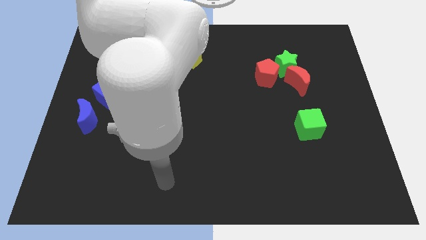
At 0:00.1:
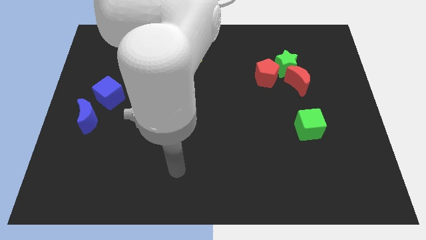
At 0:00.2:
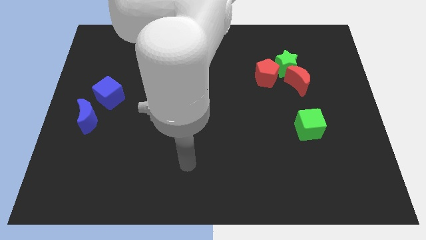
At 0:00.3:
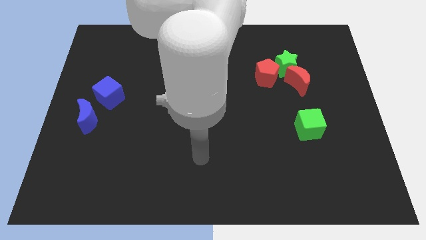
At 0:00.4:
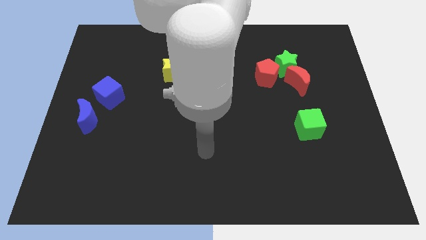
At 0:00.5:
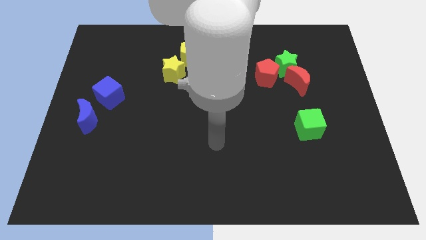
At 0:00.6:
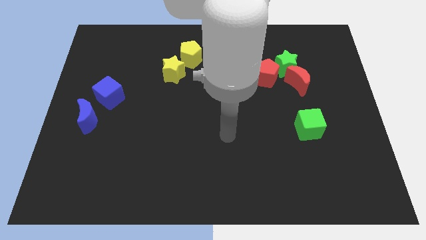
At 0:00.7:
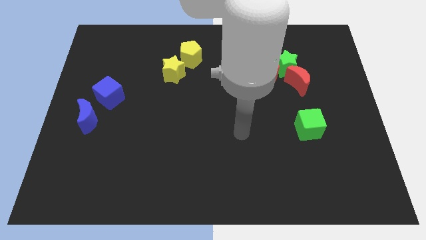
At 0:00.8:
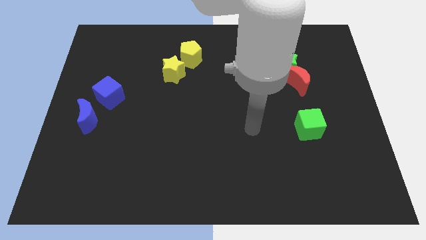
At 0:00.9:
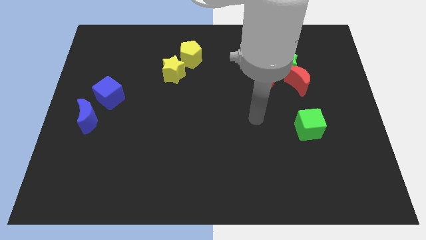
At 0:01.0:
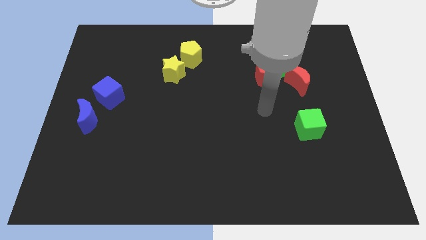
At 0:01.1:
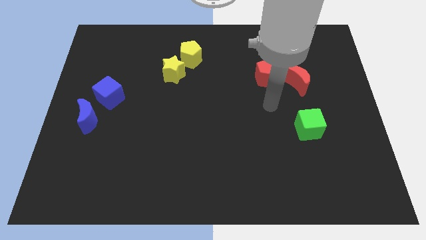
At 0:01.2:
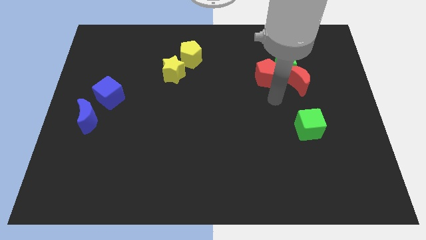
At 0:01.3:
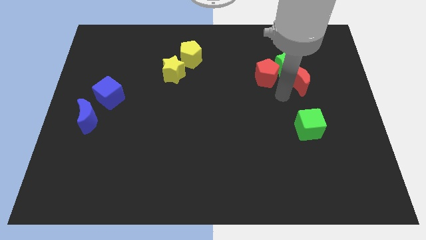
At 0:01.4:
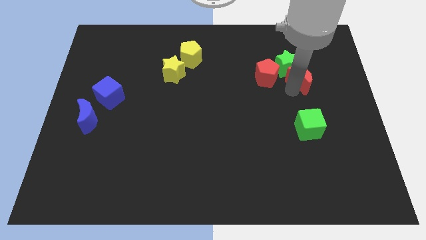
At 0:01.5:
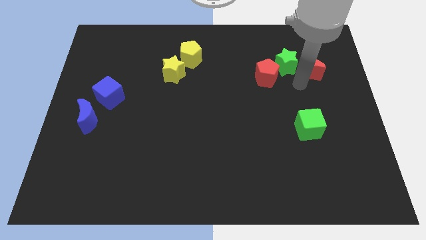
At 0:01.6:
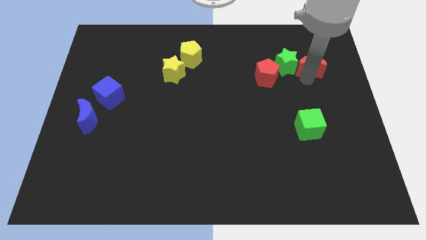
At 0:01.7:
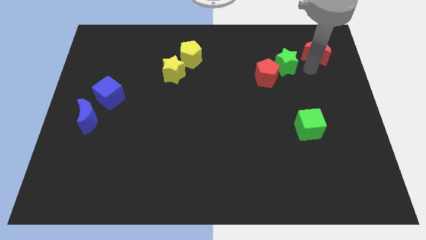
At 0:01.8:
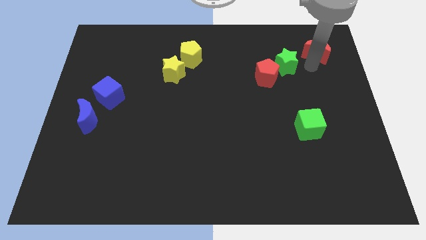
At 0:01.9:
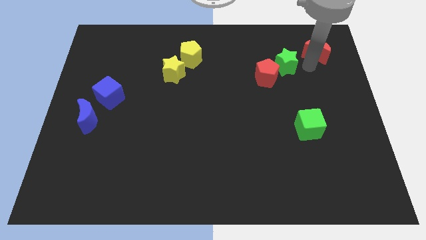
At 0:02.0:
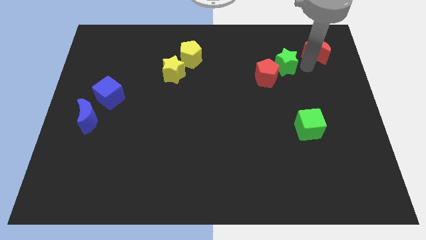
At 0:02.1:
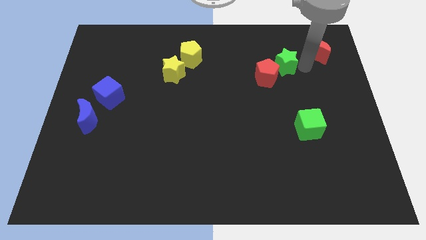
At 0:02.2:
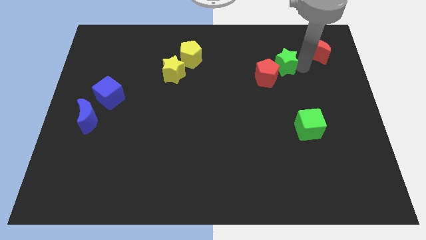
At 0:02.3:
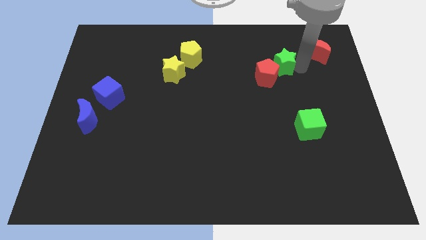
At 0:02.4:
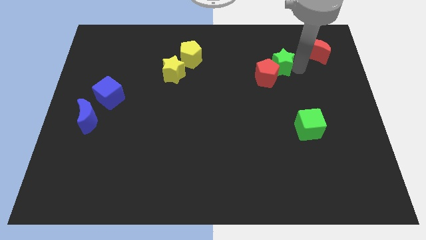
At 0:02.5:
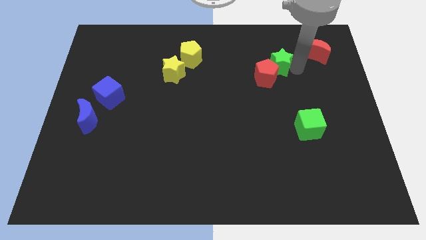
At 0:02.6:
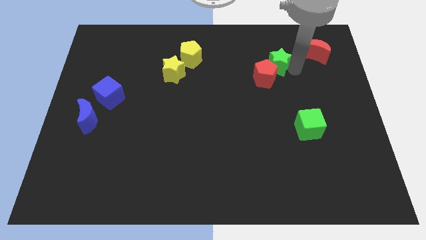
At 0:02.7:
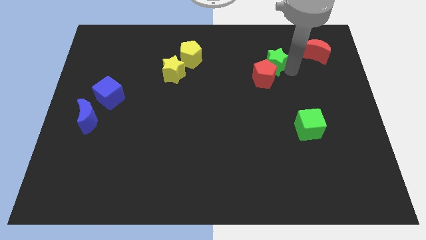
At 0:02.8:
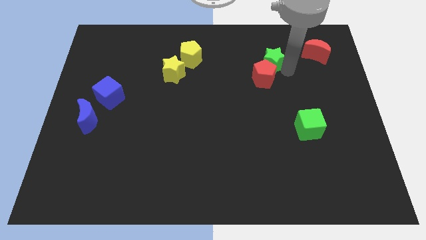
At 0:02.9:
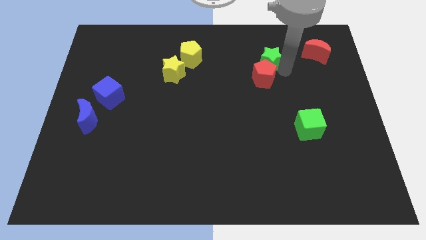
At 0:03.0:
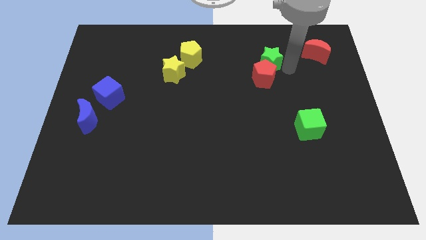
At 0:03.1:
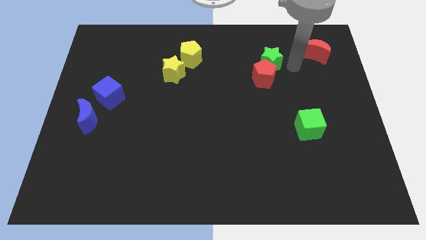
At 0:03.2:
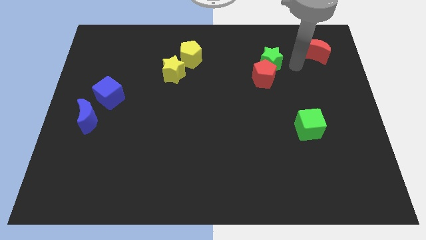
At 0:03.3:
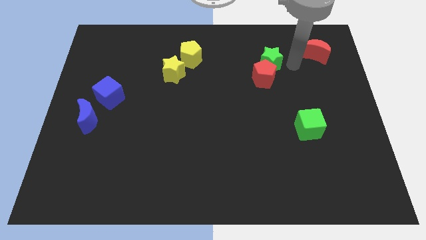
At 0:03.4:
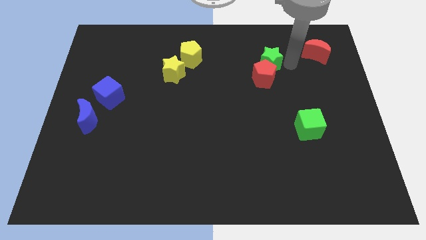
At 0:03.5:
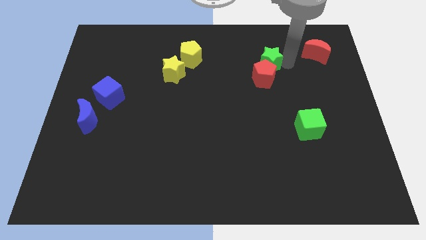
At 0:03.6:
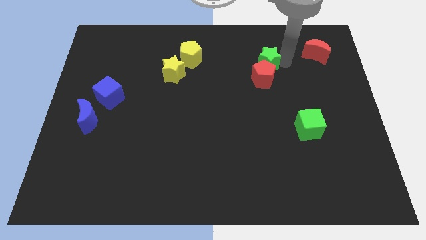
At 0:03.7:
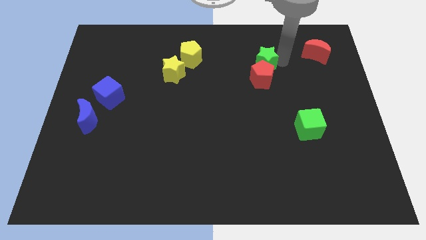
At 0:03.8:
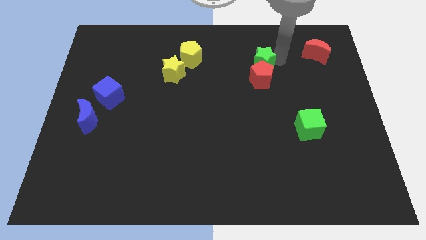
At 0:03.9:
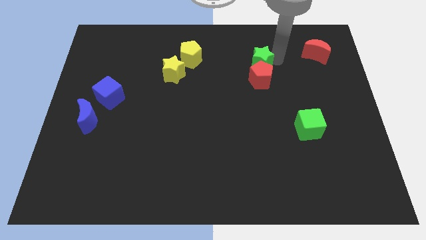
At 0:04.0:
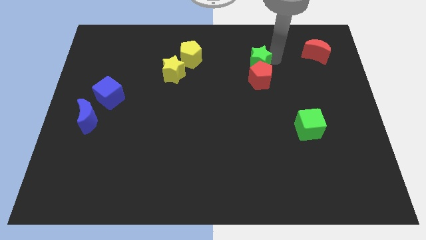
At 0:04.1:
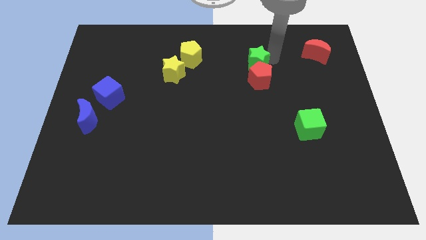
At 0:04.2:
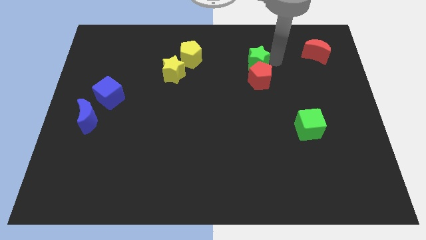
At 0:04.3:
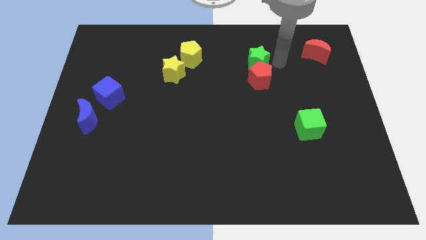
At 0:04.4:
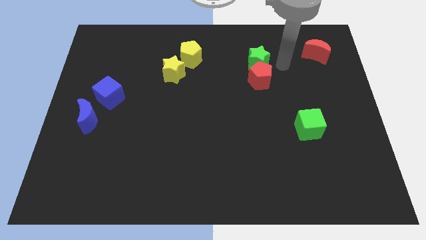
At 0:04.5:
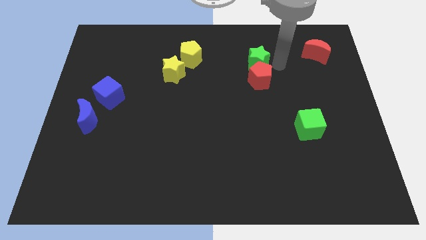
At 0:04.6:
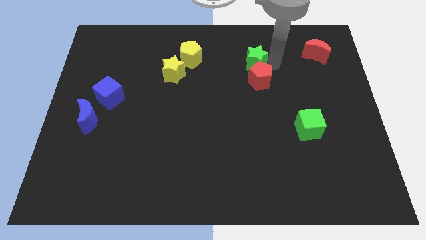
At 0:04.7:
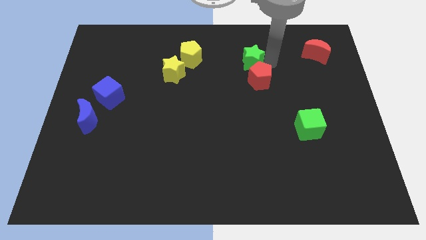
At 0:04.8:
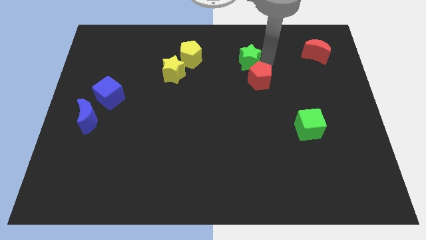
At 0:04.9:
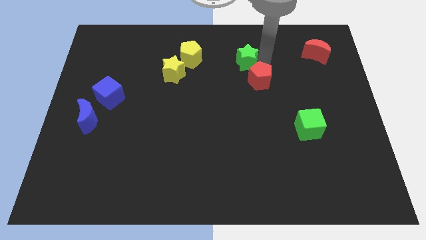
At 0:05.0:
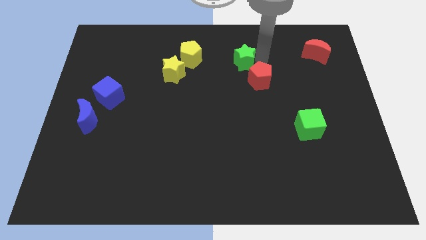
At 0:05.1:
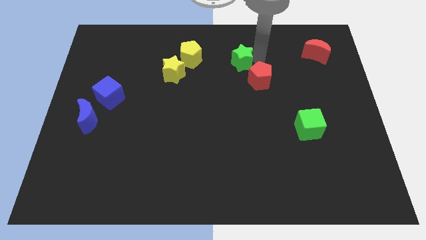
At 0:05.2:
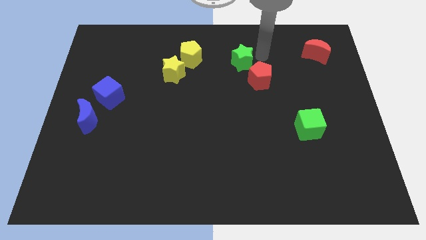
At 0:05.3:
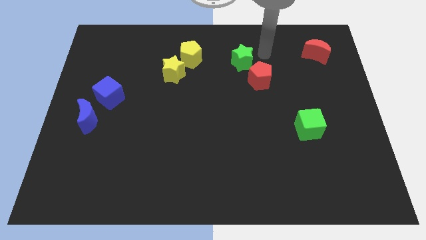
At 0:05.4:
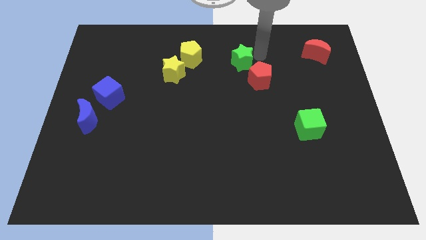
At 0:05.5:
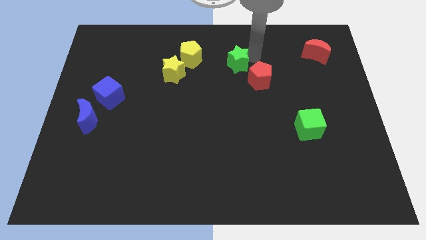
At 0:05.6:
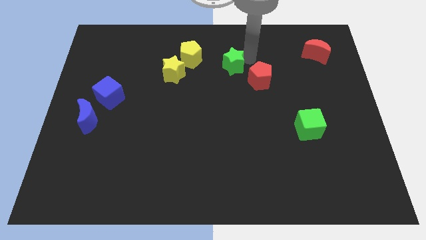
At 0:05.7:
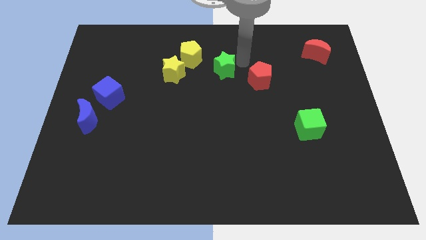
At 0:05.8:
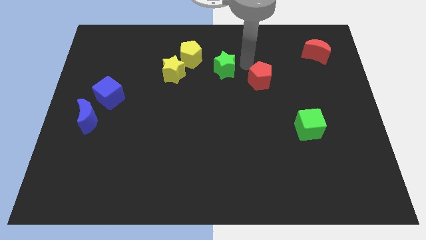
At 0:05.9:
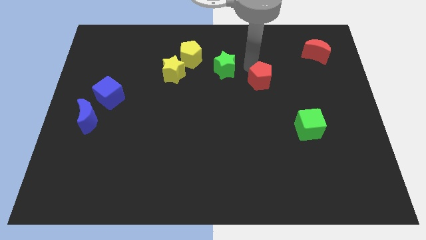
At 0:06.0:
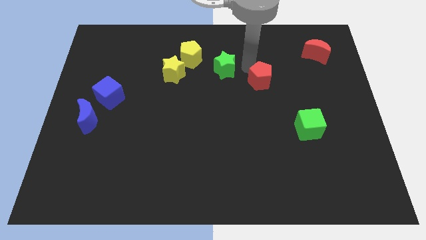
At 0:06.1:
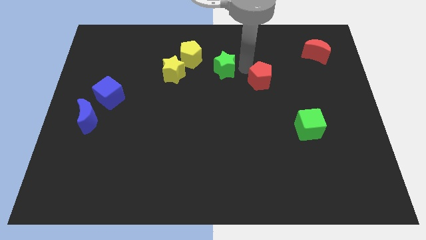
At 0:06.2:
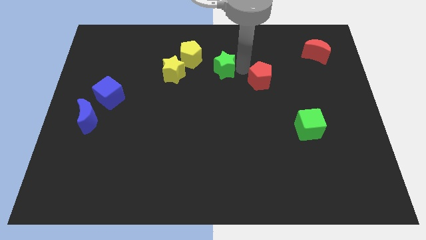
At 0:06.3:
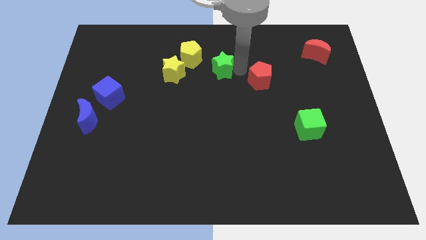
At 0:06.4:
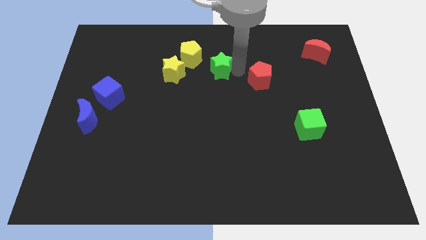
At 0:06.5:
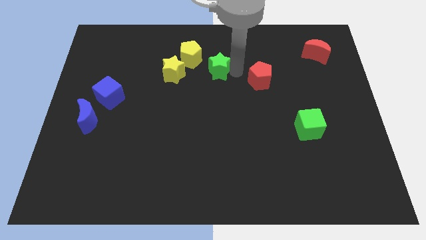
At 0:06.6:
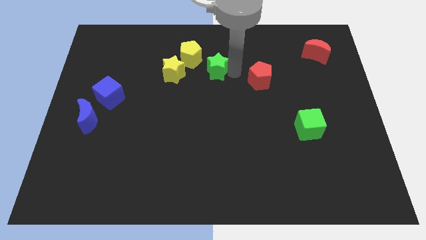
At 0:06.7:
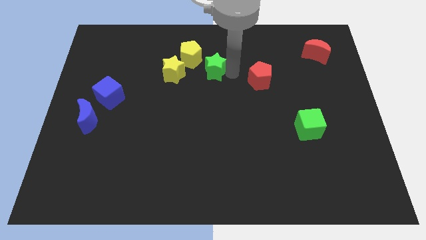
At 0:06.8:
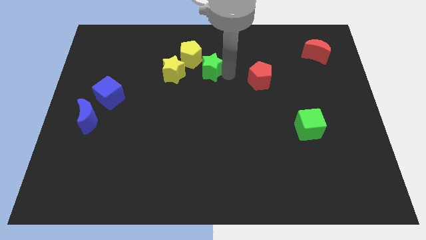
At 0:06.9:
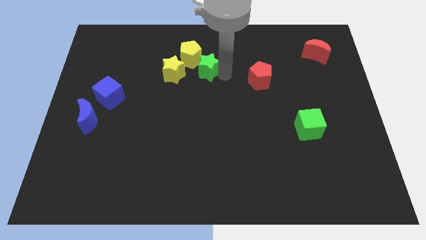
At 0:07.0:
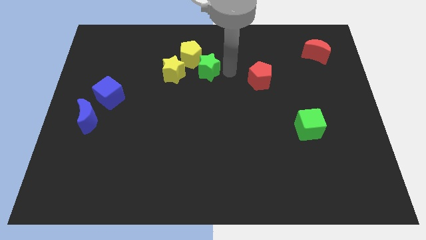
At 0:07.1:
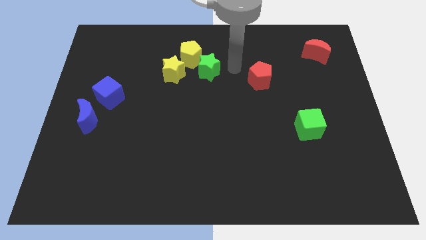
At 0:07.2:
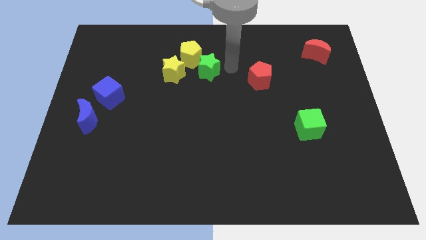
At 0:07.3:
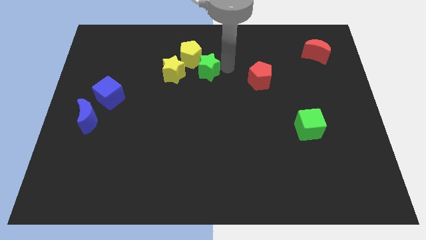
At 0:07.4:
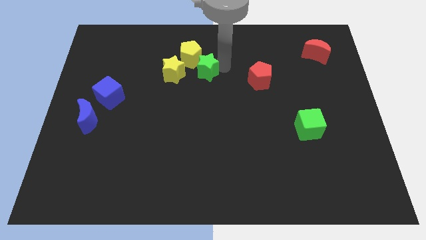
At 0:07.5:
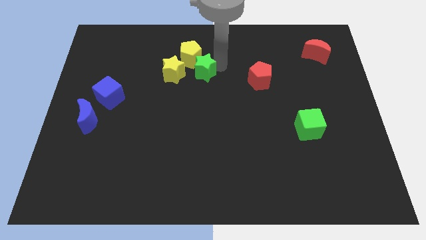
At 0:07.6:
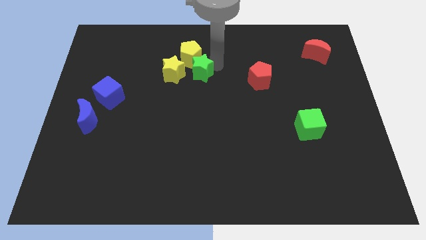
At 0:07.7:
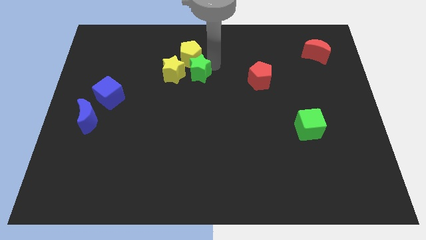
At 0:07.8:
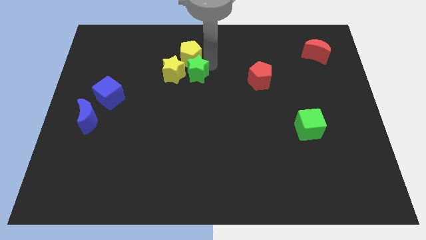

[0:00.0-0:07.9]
push the green star next to the yellow star
